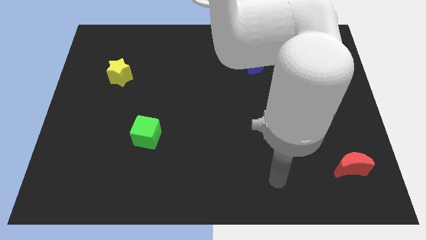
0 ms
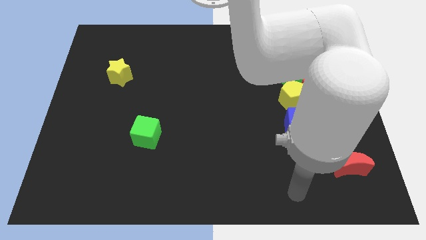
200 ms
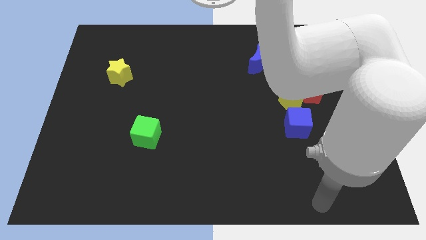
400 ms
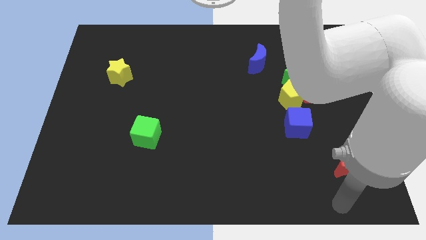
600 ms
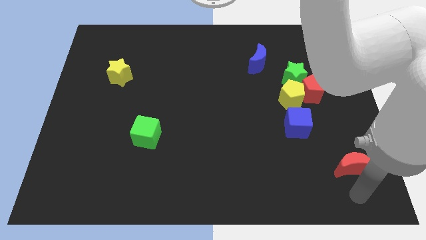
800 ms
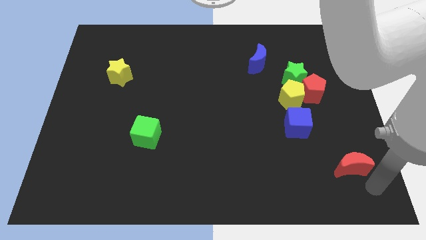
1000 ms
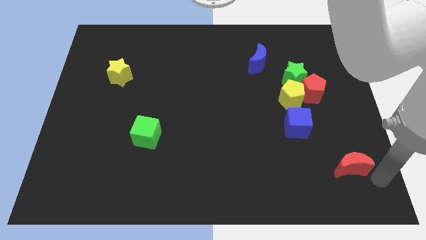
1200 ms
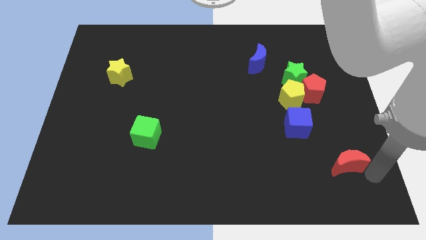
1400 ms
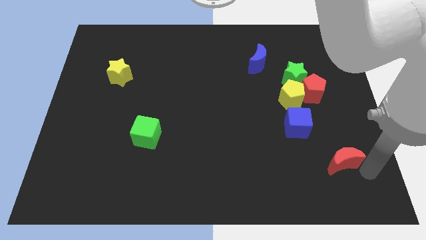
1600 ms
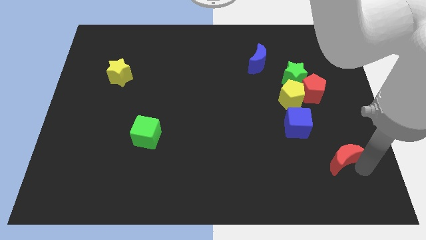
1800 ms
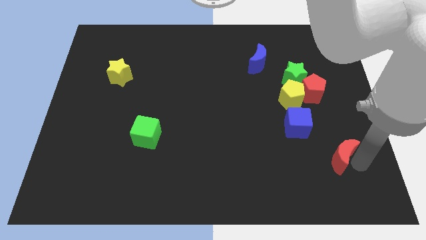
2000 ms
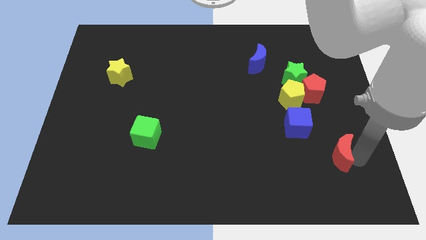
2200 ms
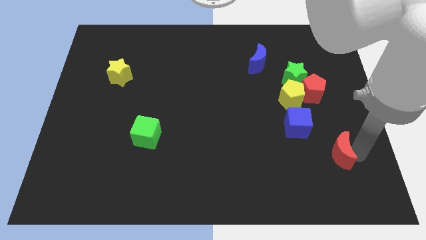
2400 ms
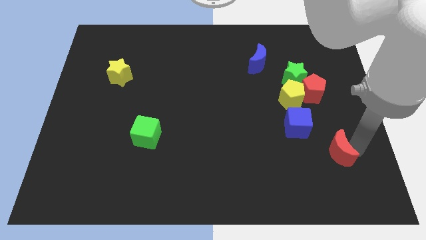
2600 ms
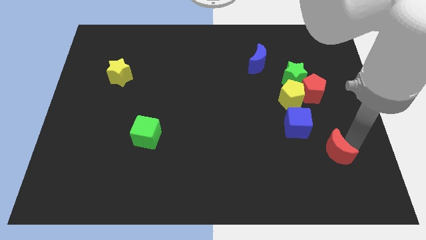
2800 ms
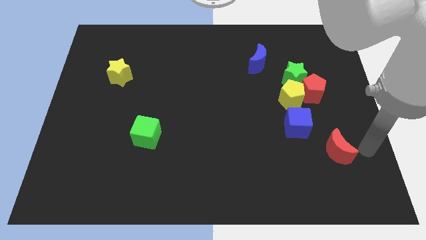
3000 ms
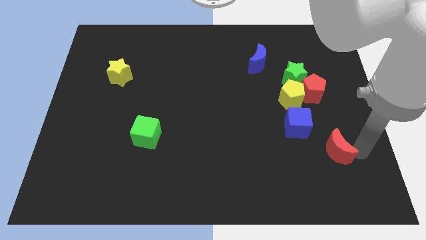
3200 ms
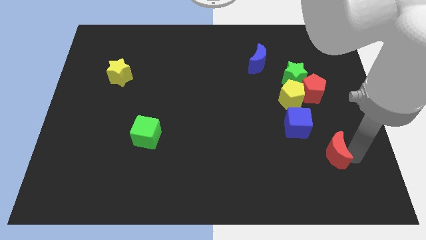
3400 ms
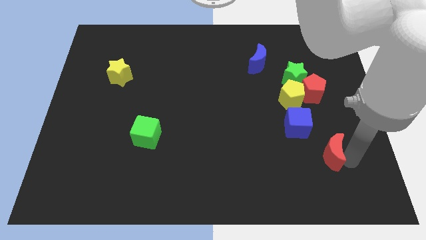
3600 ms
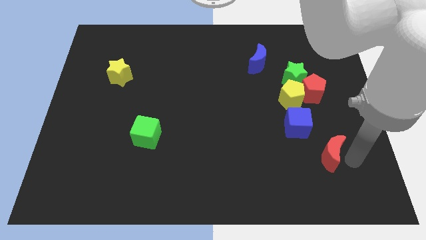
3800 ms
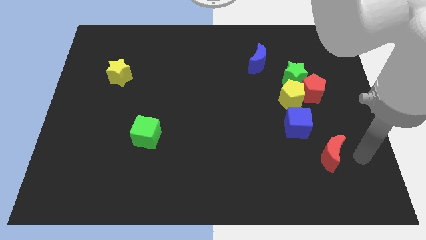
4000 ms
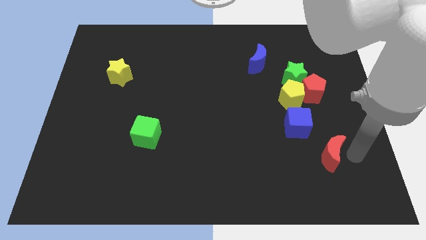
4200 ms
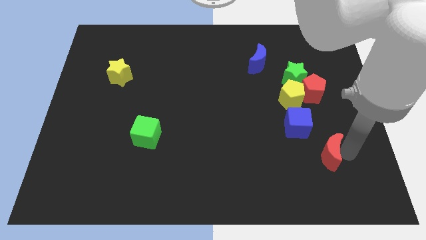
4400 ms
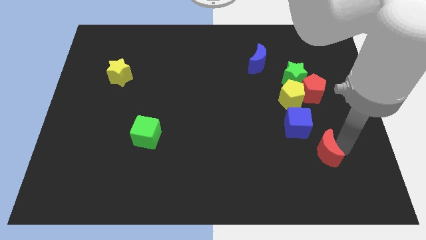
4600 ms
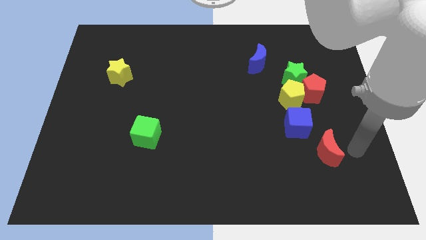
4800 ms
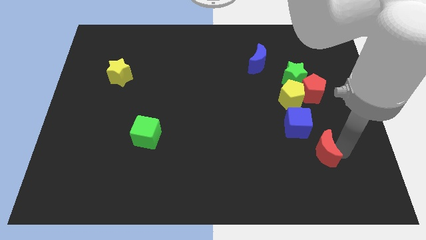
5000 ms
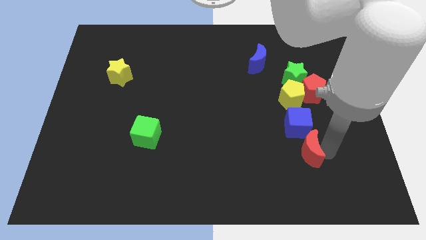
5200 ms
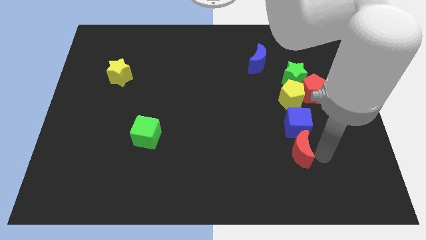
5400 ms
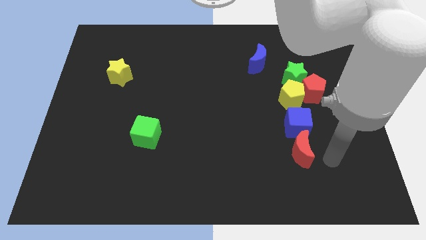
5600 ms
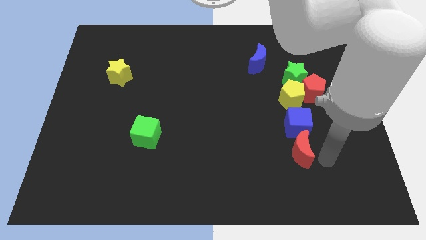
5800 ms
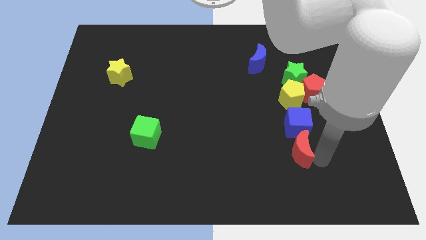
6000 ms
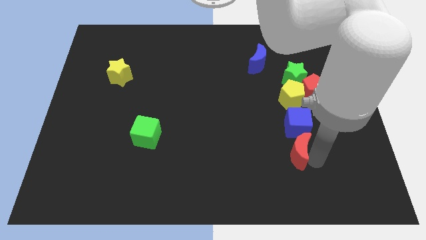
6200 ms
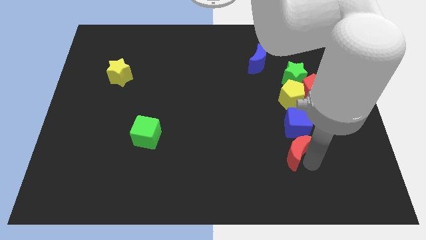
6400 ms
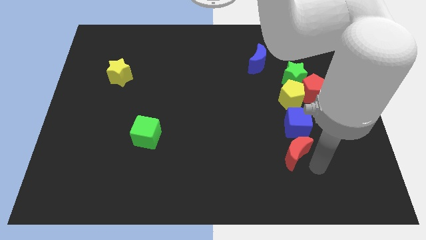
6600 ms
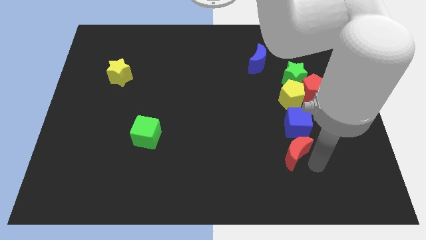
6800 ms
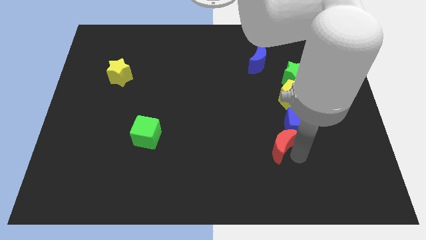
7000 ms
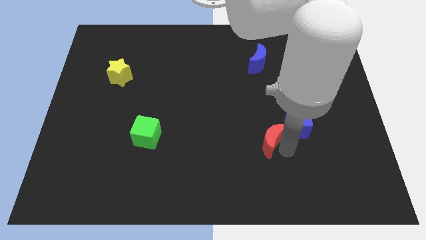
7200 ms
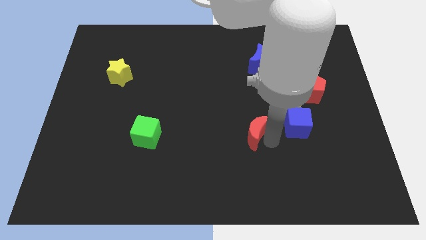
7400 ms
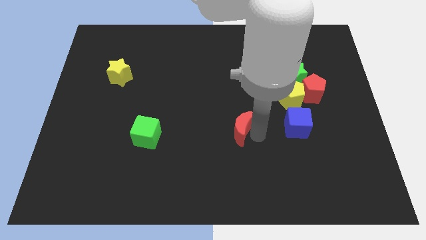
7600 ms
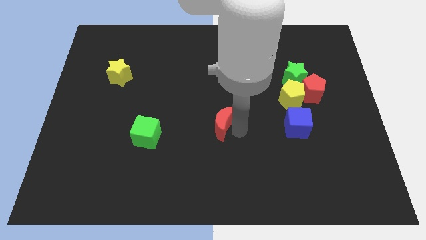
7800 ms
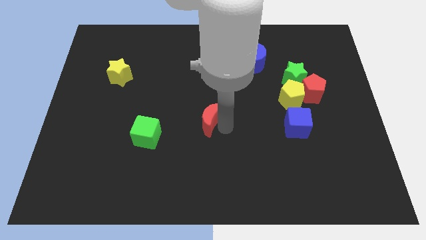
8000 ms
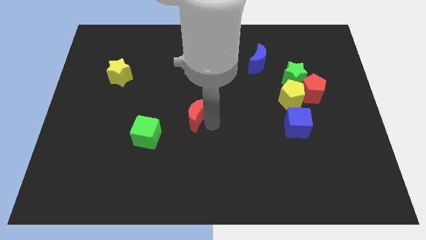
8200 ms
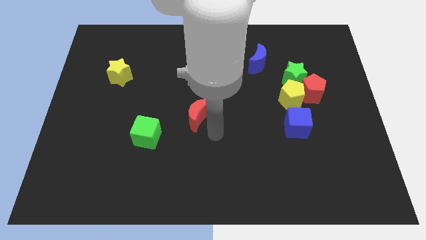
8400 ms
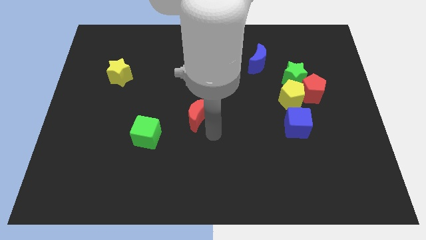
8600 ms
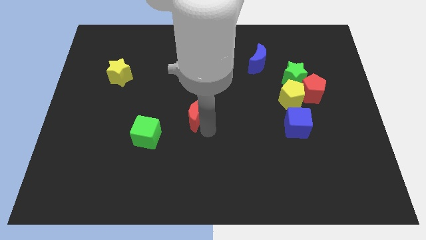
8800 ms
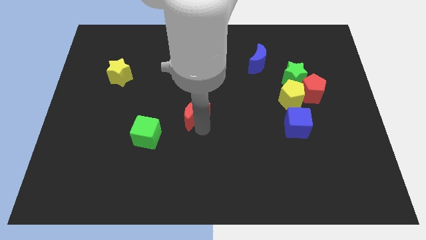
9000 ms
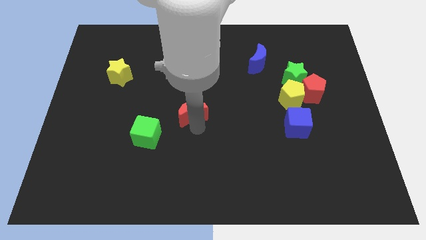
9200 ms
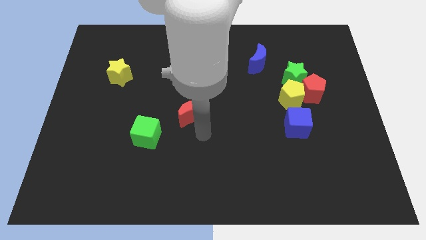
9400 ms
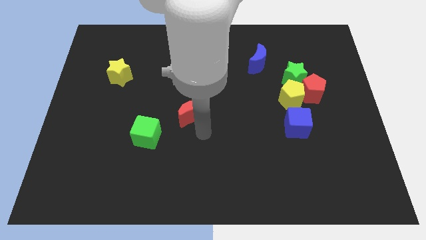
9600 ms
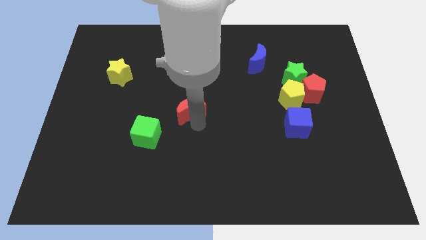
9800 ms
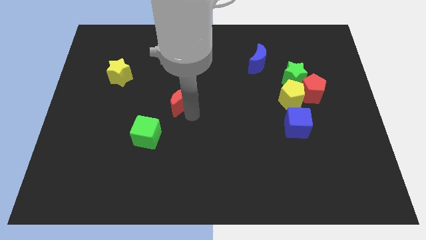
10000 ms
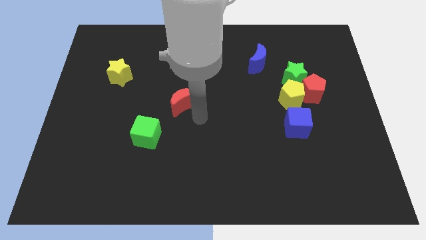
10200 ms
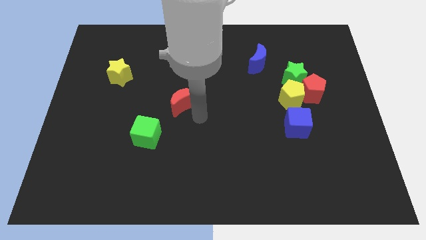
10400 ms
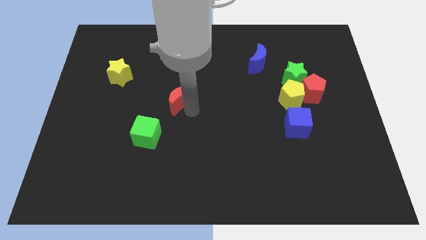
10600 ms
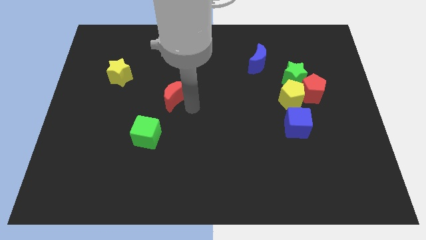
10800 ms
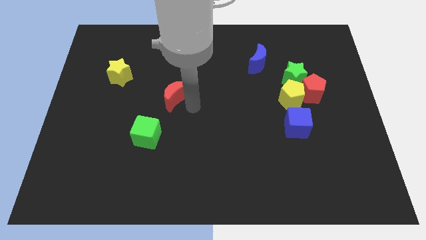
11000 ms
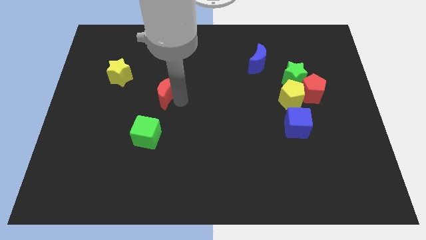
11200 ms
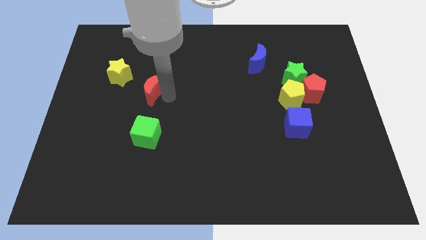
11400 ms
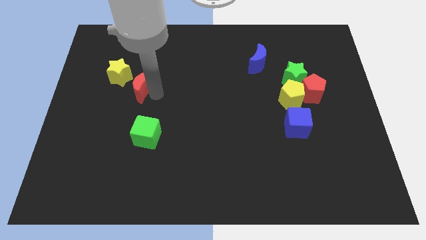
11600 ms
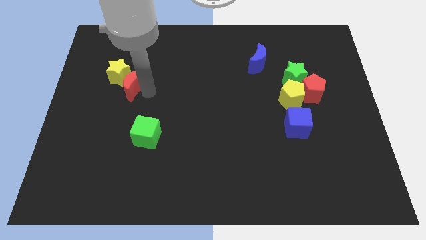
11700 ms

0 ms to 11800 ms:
put the red moon to the yellow star

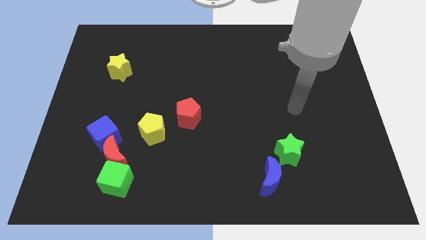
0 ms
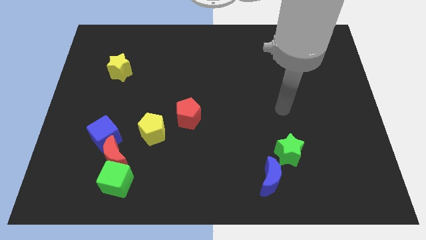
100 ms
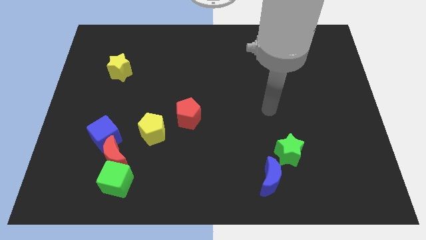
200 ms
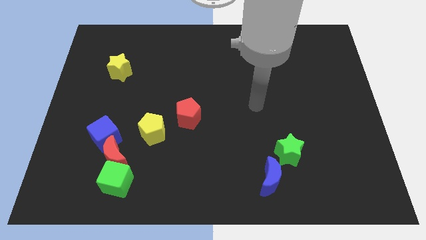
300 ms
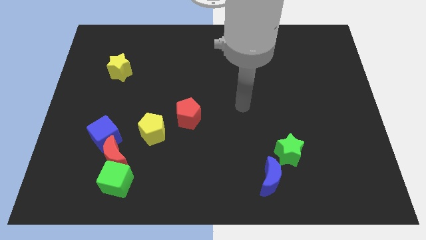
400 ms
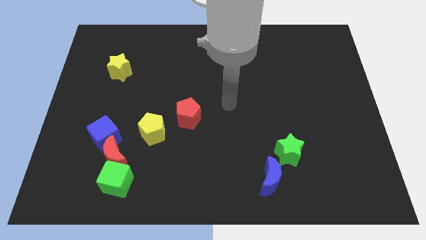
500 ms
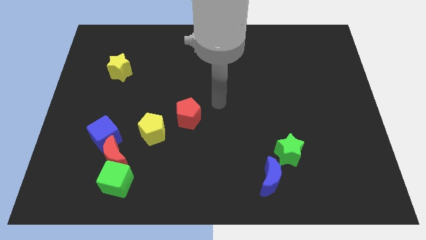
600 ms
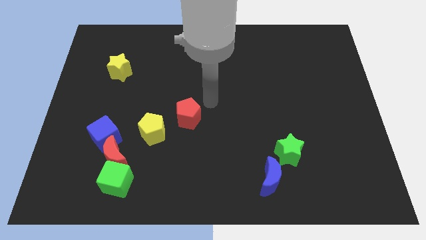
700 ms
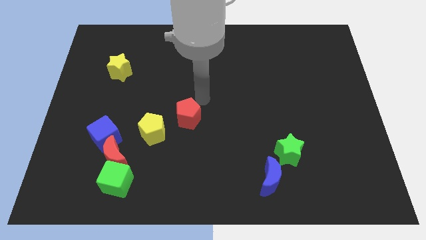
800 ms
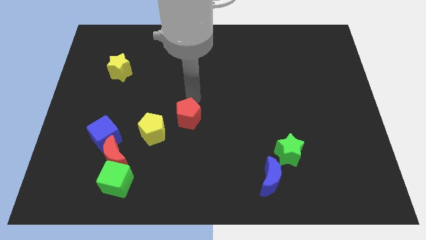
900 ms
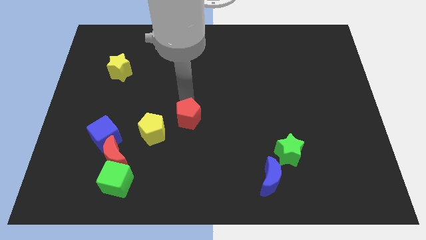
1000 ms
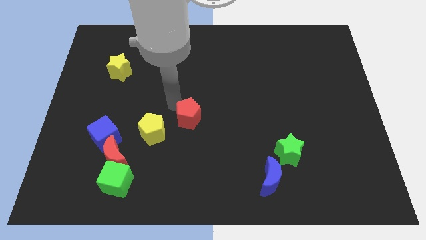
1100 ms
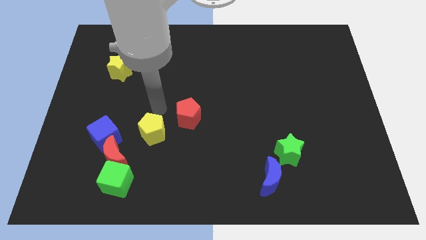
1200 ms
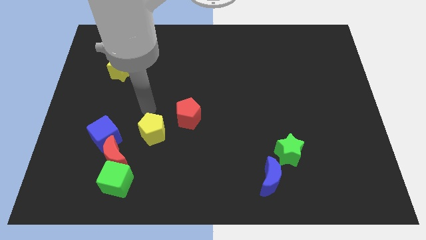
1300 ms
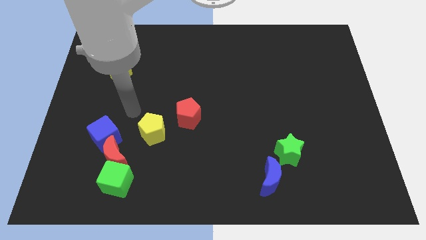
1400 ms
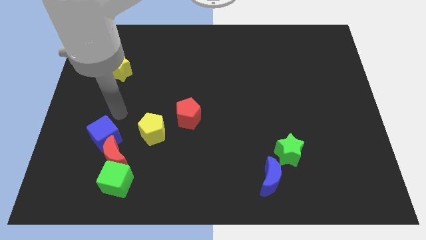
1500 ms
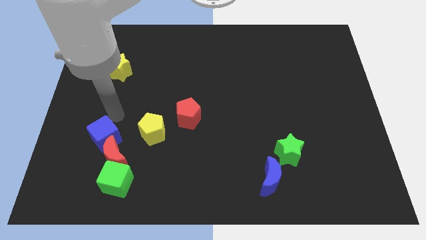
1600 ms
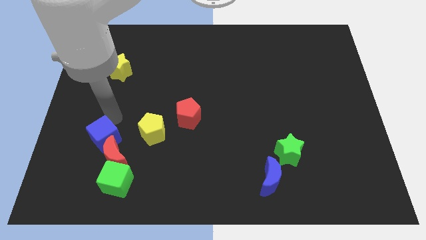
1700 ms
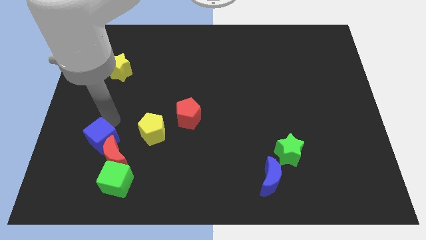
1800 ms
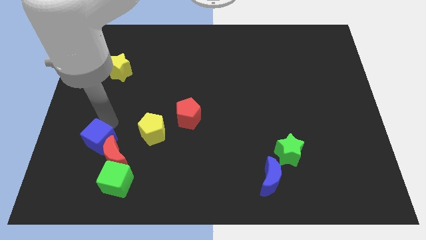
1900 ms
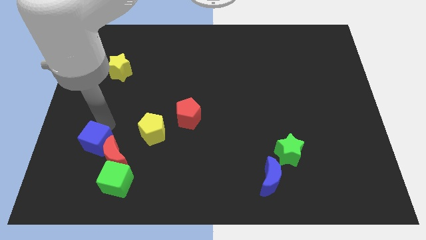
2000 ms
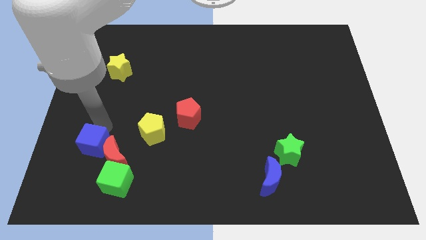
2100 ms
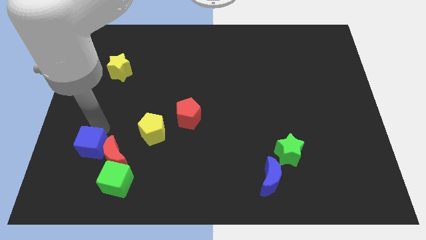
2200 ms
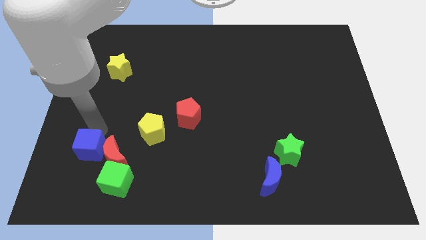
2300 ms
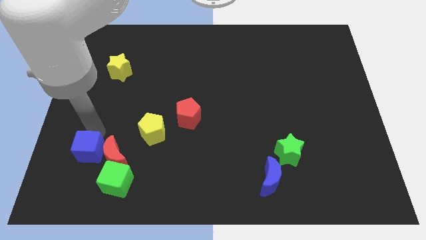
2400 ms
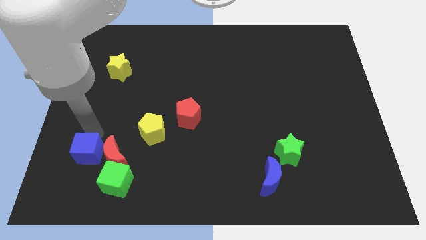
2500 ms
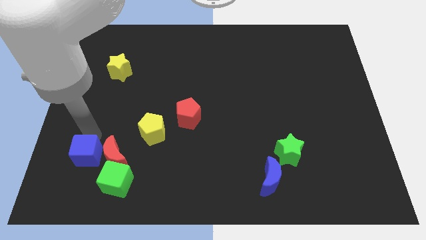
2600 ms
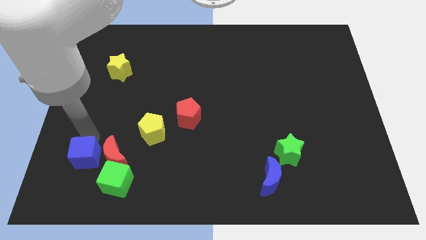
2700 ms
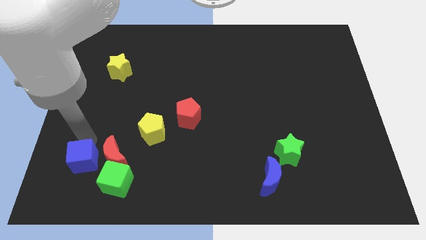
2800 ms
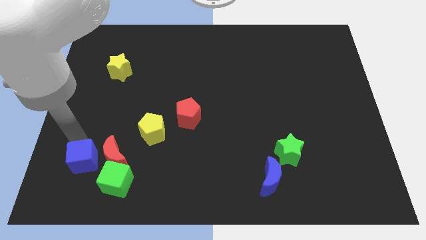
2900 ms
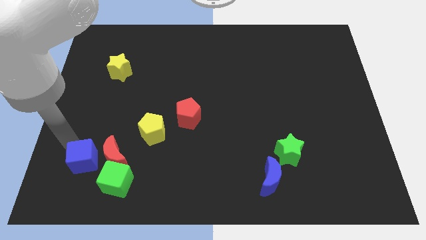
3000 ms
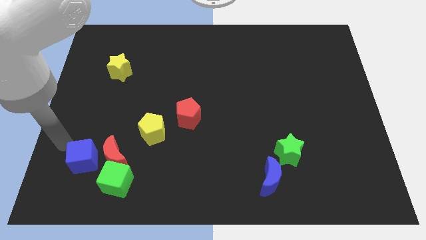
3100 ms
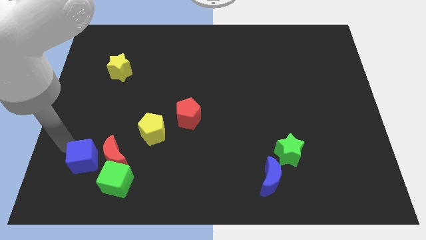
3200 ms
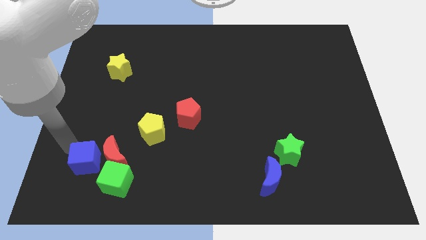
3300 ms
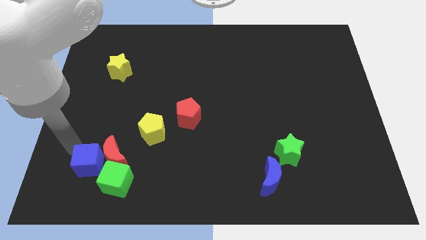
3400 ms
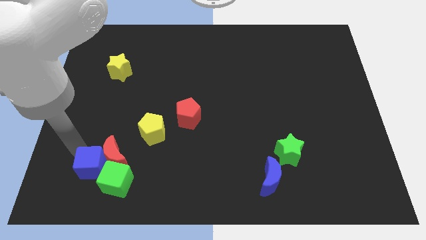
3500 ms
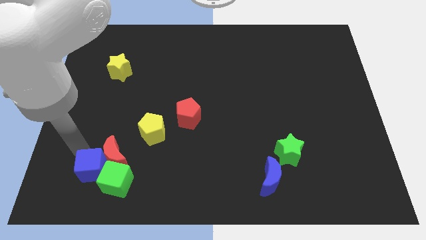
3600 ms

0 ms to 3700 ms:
slide the blue cube next to the green cube
